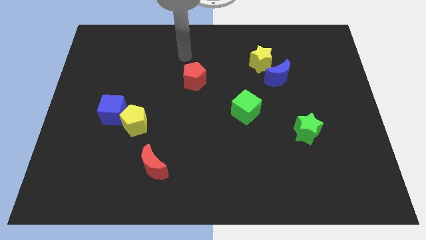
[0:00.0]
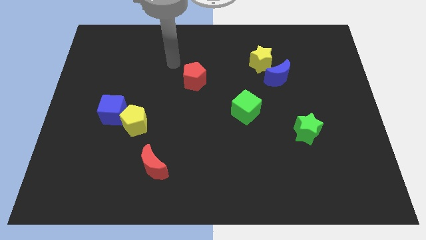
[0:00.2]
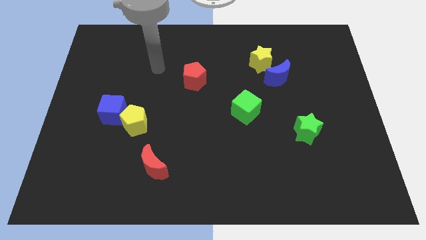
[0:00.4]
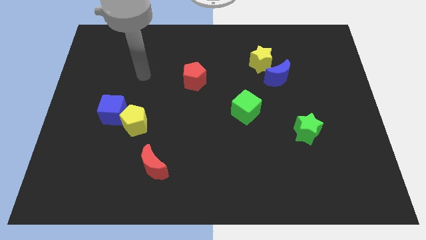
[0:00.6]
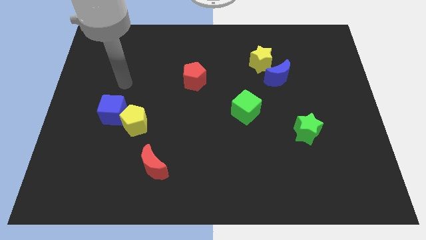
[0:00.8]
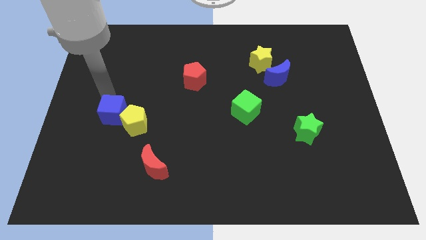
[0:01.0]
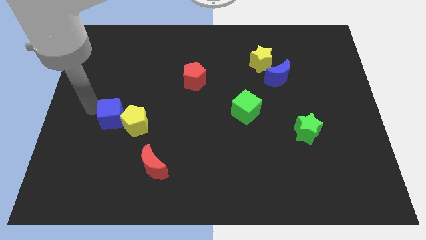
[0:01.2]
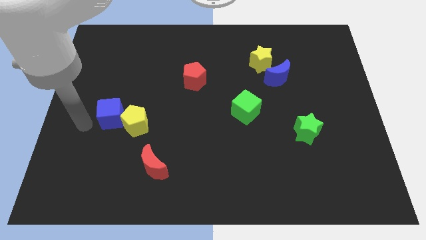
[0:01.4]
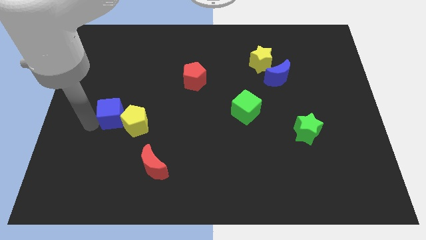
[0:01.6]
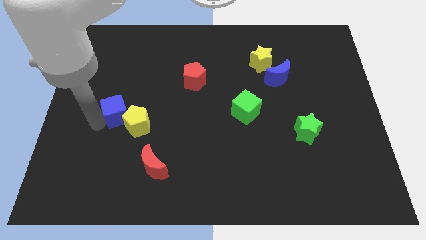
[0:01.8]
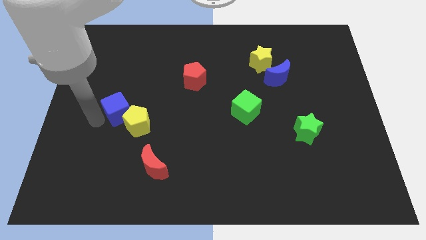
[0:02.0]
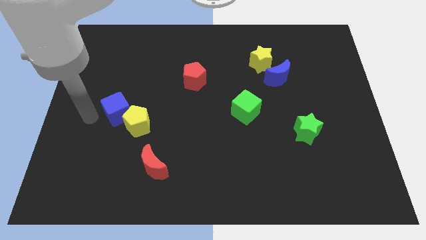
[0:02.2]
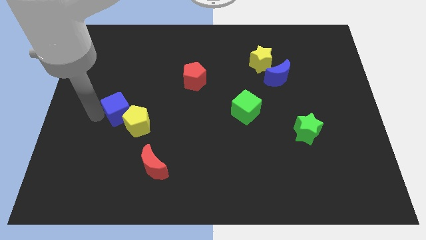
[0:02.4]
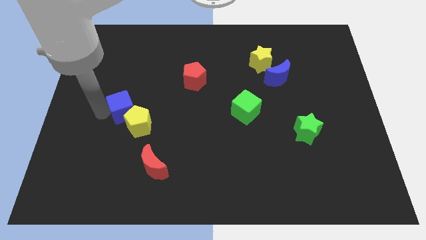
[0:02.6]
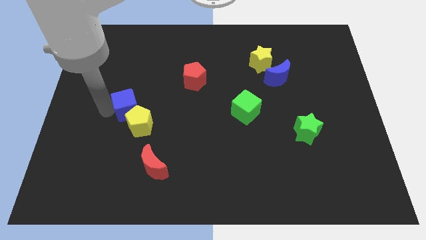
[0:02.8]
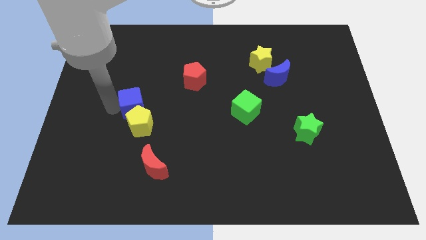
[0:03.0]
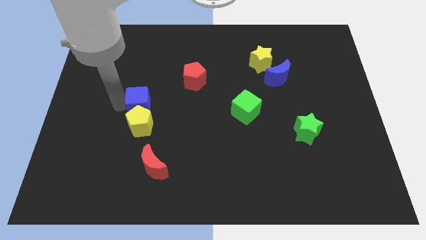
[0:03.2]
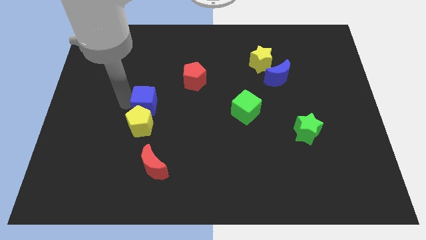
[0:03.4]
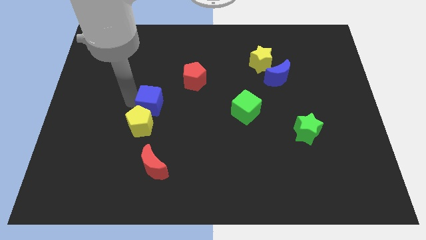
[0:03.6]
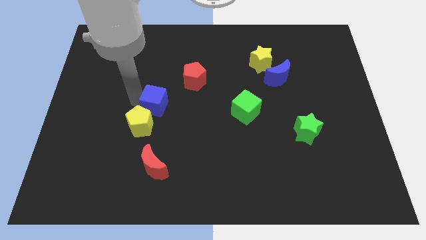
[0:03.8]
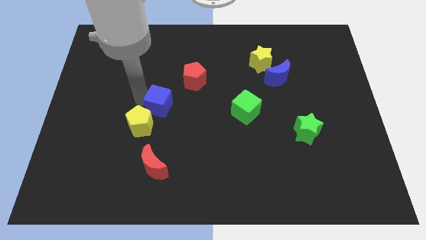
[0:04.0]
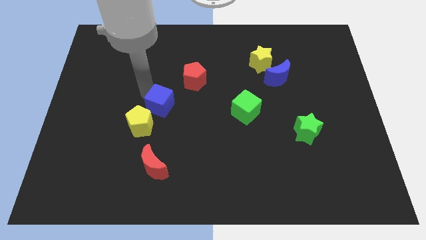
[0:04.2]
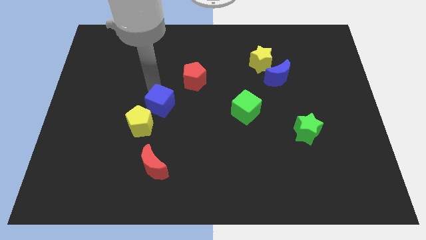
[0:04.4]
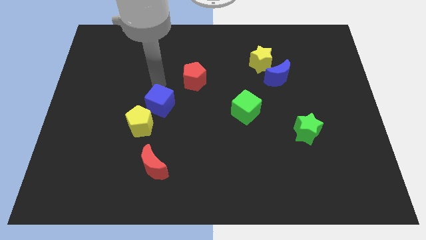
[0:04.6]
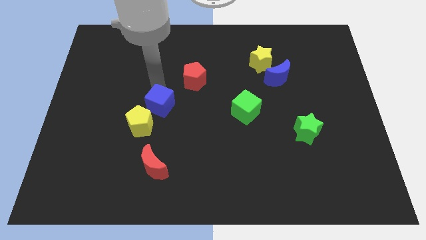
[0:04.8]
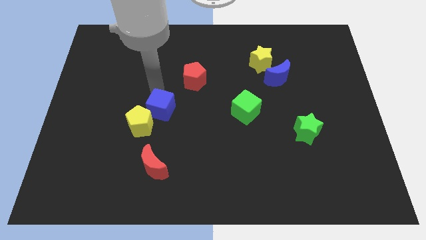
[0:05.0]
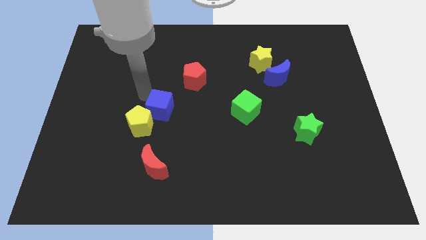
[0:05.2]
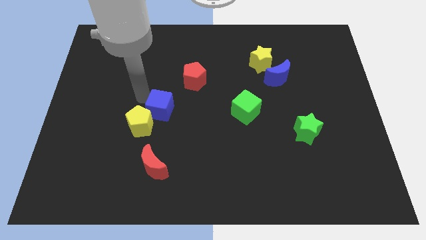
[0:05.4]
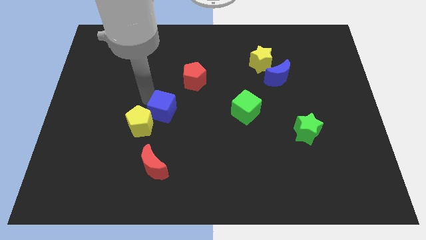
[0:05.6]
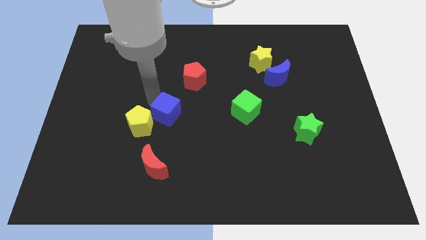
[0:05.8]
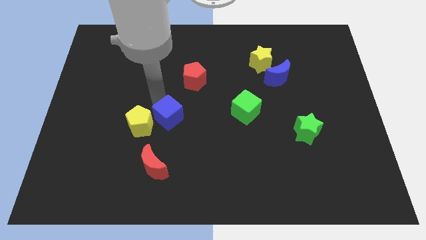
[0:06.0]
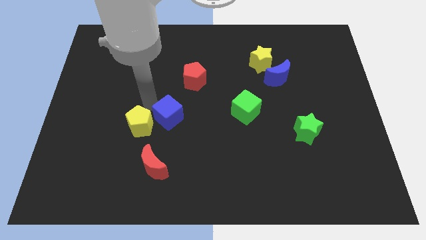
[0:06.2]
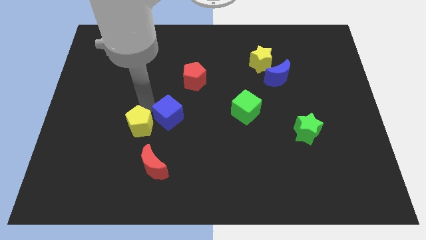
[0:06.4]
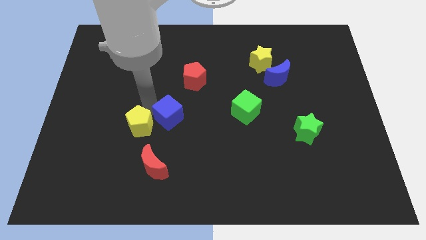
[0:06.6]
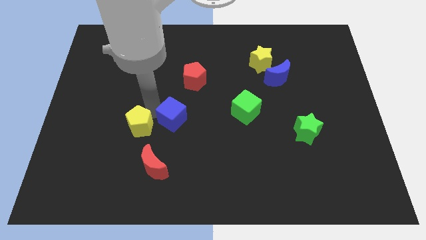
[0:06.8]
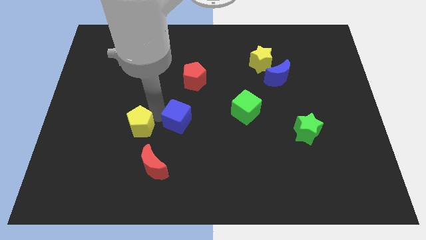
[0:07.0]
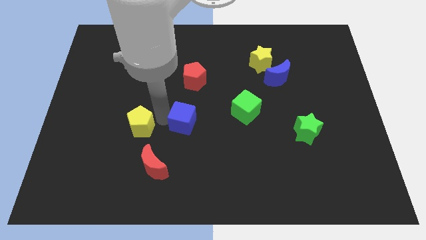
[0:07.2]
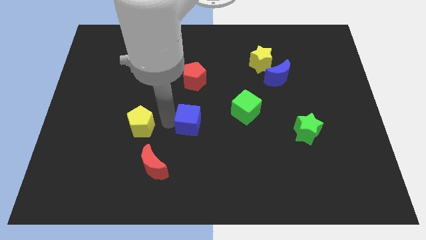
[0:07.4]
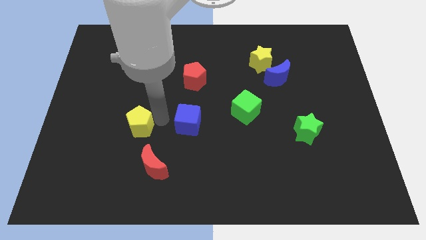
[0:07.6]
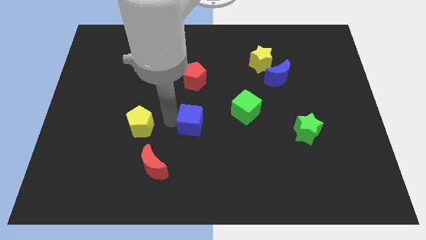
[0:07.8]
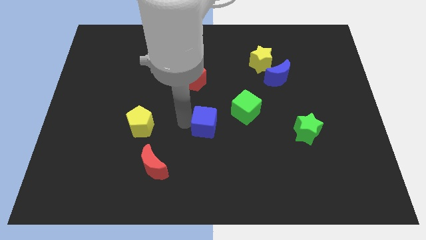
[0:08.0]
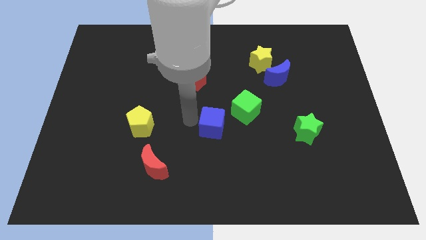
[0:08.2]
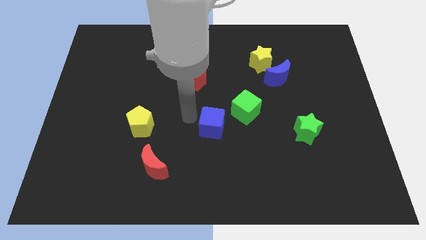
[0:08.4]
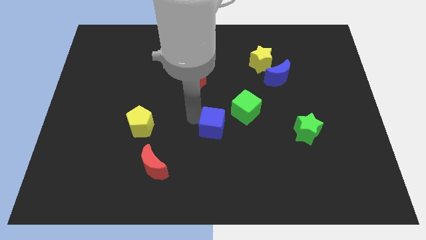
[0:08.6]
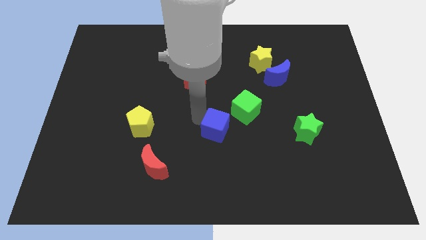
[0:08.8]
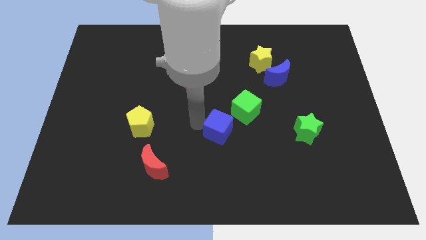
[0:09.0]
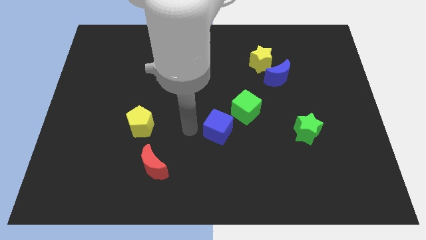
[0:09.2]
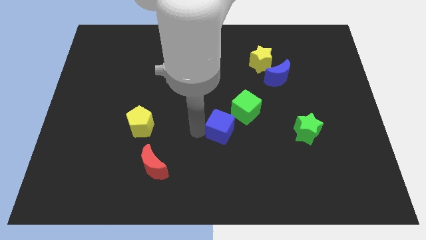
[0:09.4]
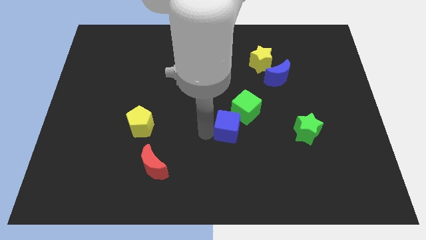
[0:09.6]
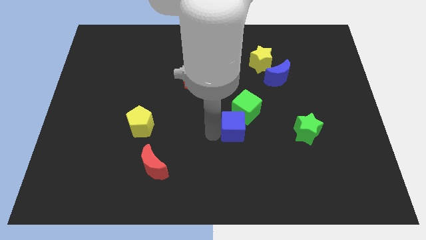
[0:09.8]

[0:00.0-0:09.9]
move the blue cube just left of the green star

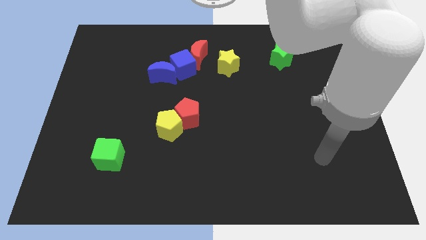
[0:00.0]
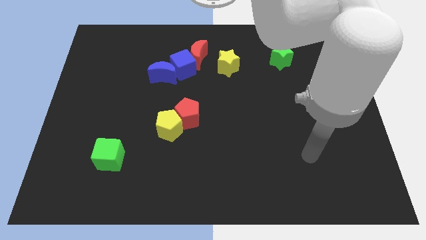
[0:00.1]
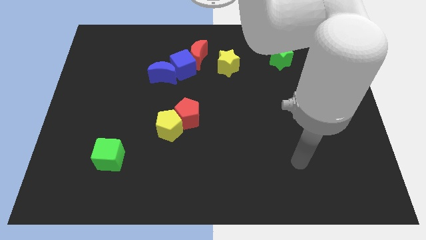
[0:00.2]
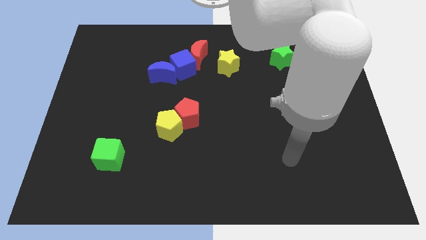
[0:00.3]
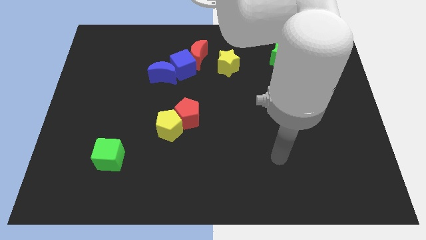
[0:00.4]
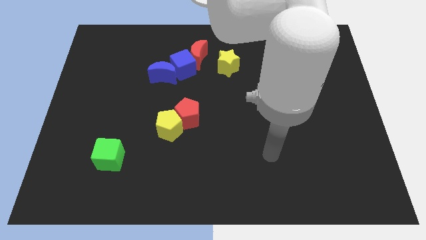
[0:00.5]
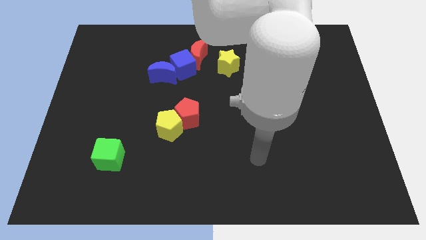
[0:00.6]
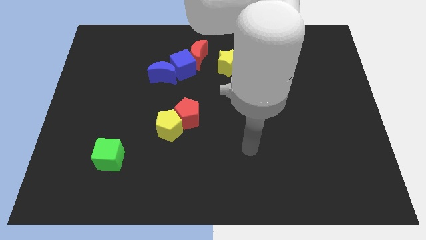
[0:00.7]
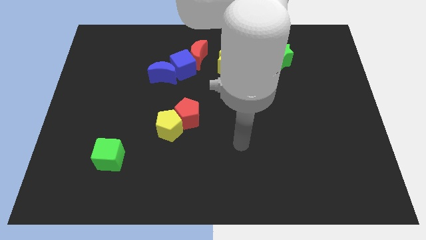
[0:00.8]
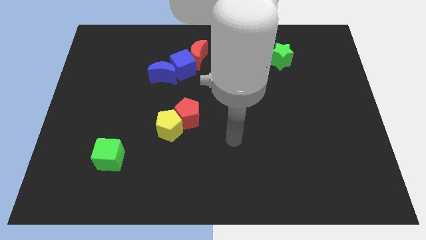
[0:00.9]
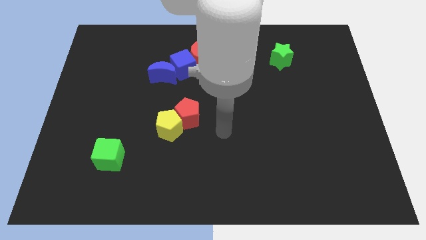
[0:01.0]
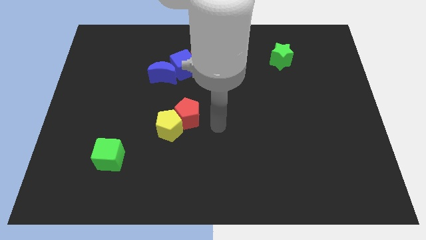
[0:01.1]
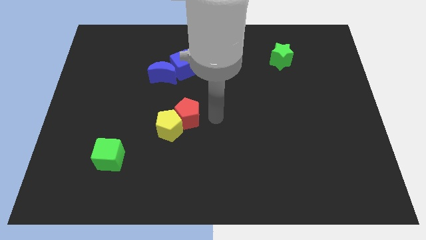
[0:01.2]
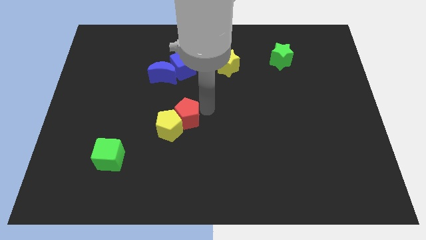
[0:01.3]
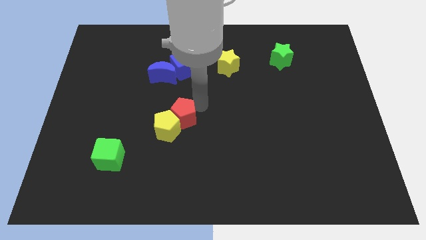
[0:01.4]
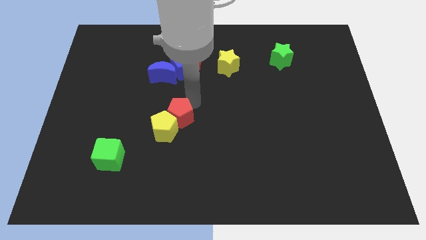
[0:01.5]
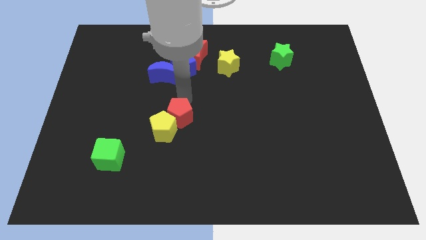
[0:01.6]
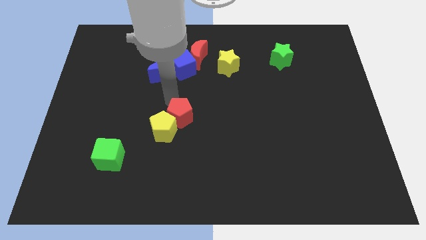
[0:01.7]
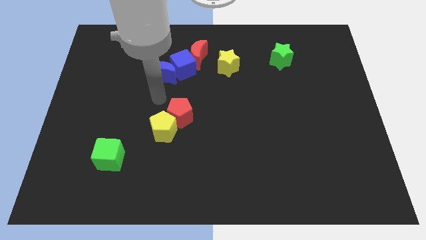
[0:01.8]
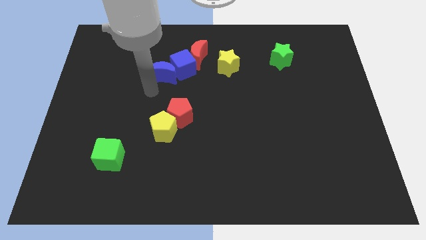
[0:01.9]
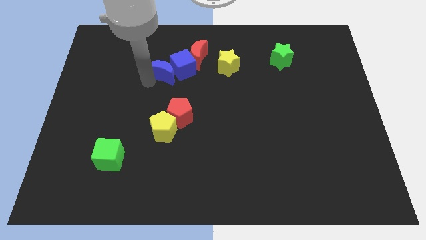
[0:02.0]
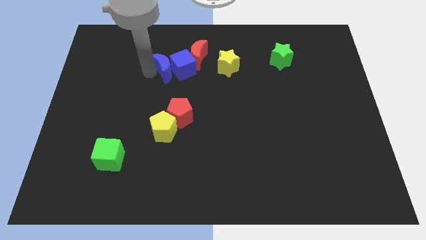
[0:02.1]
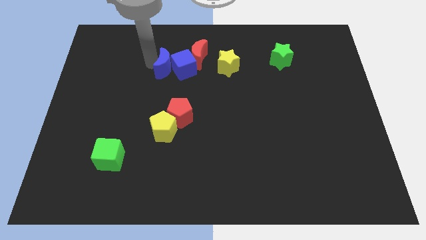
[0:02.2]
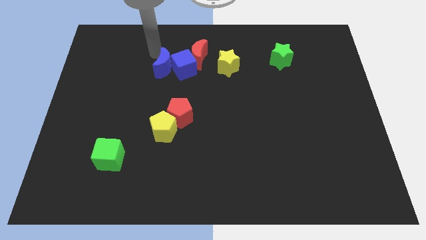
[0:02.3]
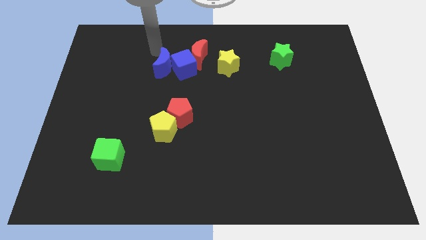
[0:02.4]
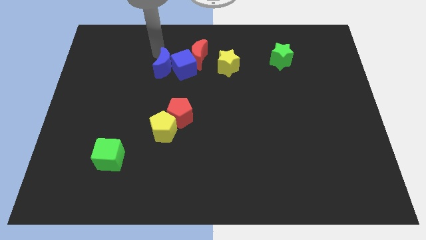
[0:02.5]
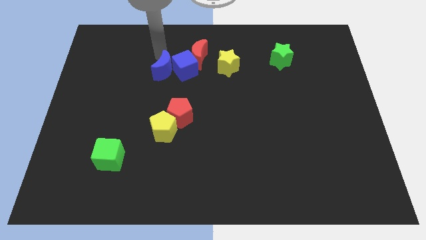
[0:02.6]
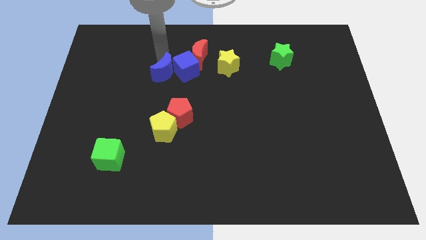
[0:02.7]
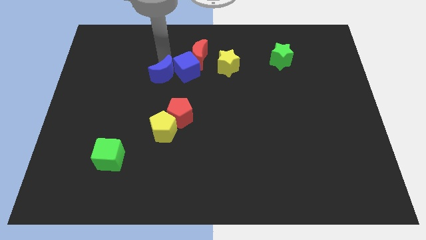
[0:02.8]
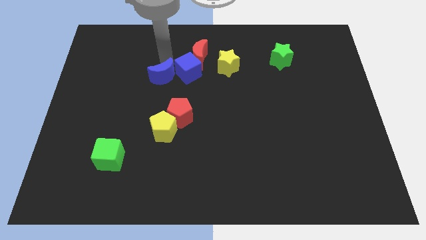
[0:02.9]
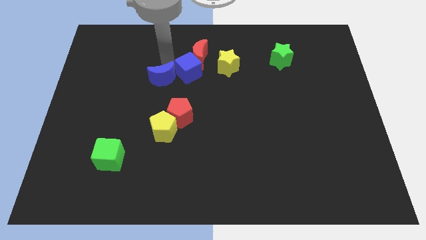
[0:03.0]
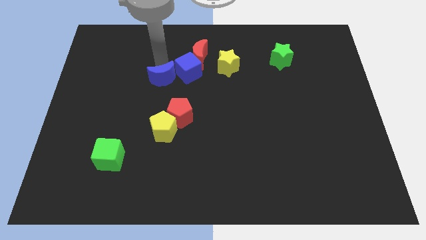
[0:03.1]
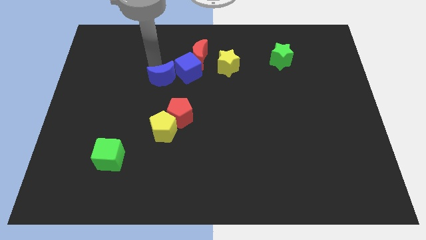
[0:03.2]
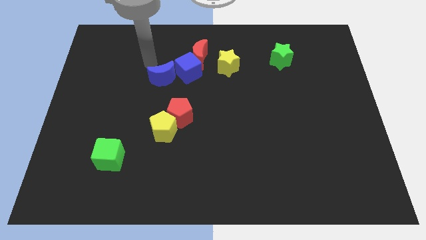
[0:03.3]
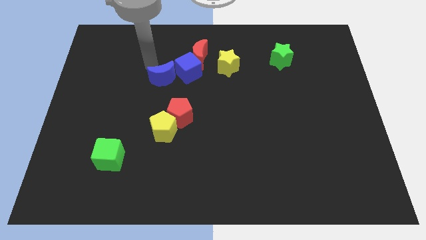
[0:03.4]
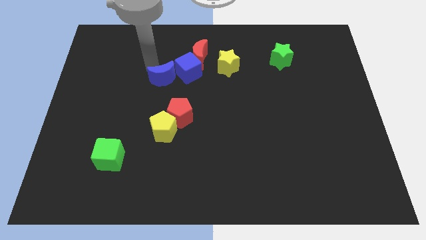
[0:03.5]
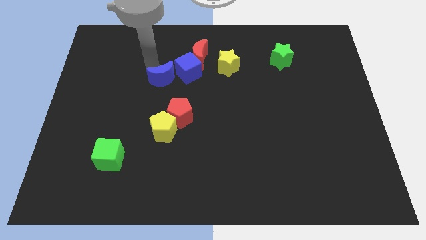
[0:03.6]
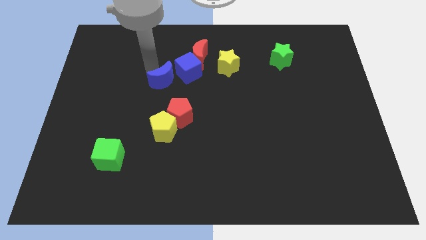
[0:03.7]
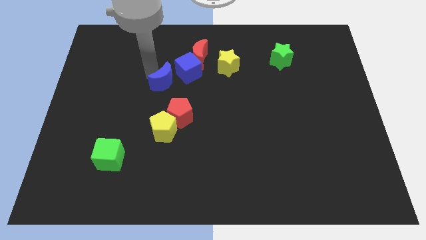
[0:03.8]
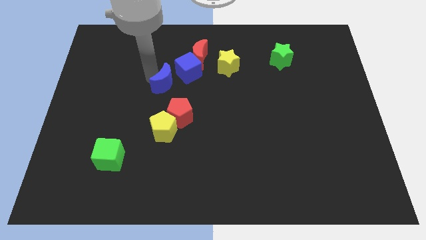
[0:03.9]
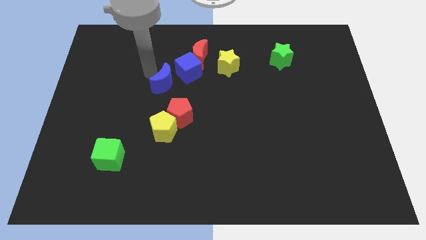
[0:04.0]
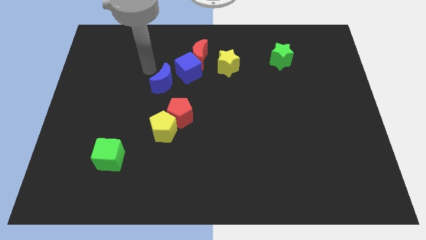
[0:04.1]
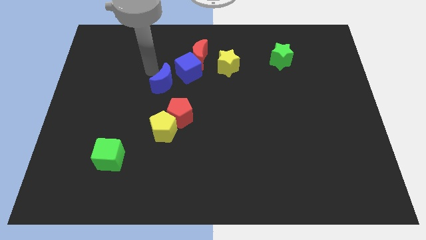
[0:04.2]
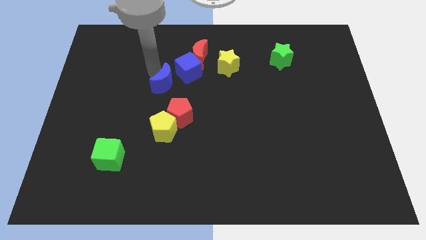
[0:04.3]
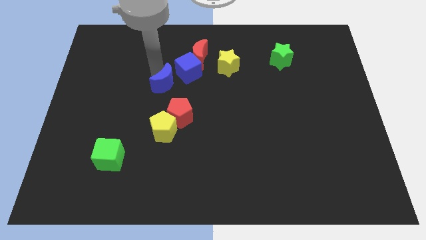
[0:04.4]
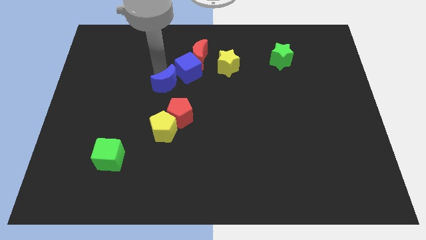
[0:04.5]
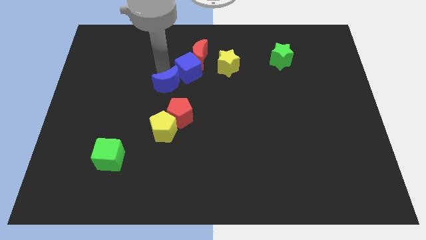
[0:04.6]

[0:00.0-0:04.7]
put the blue moon to the bottom side of the blue cube
